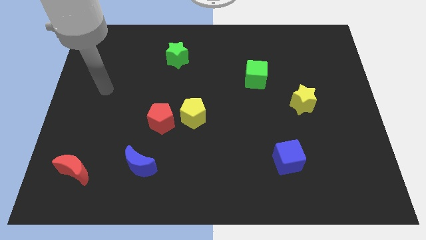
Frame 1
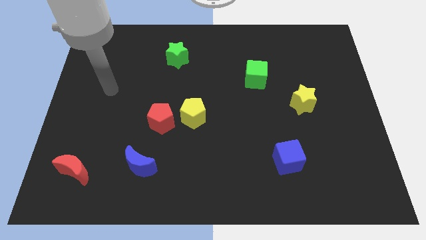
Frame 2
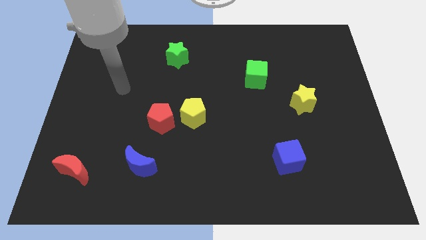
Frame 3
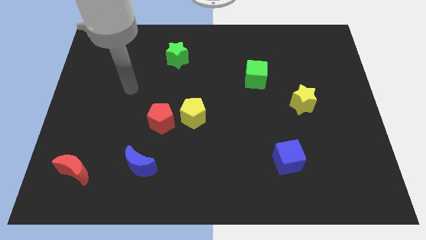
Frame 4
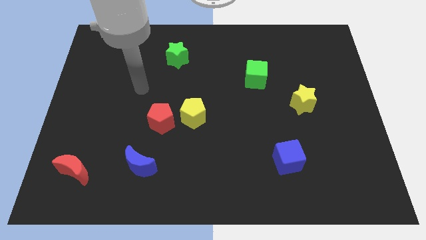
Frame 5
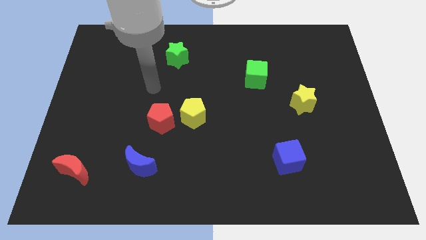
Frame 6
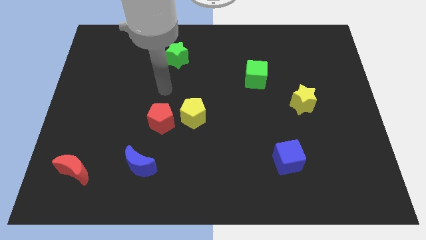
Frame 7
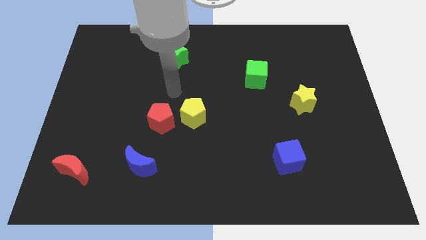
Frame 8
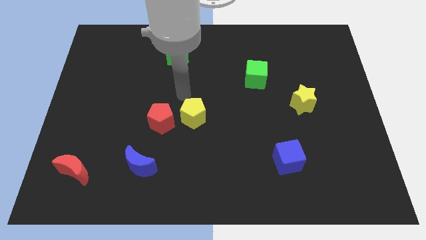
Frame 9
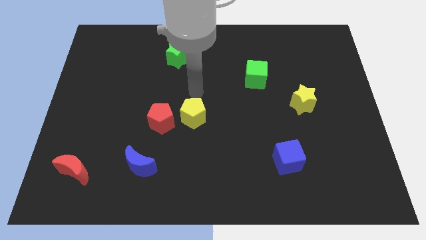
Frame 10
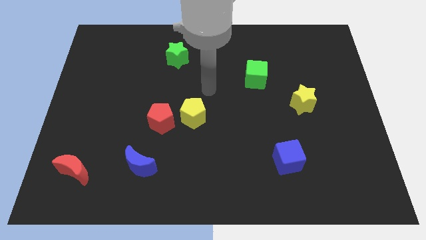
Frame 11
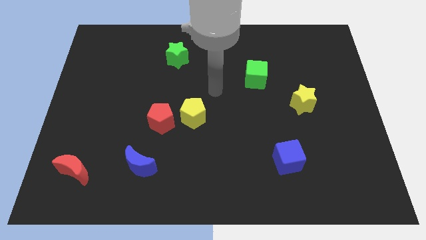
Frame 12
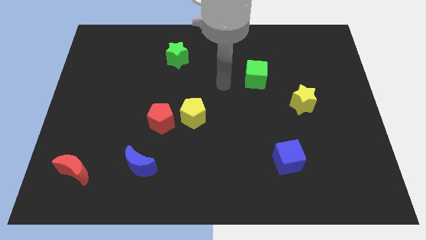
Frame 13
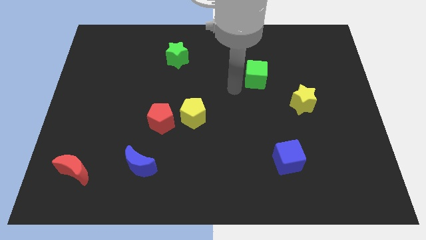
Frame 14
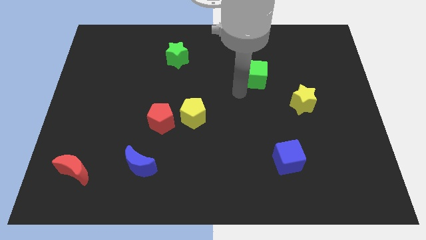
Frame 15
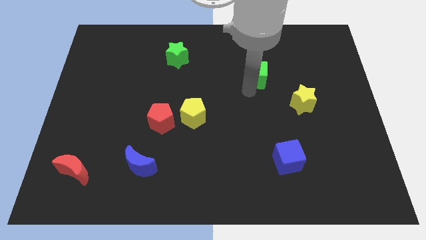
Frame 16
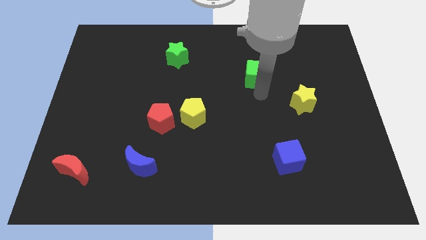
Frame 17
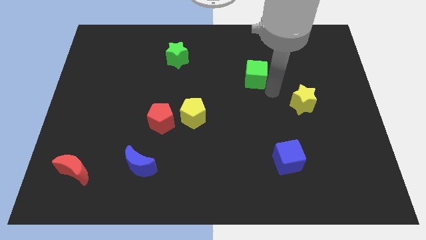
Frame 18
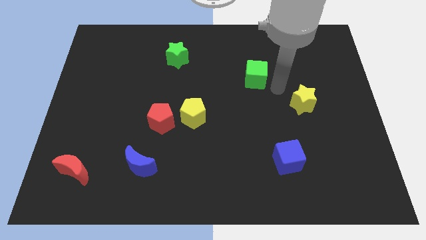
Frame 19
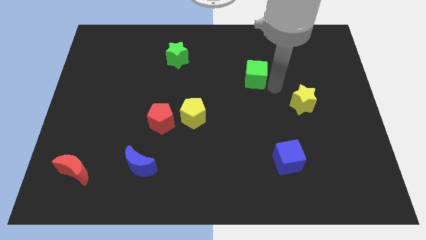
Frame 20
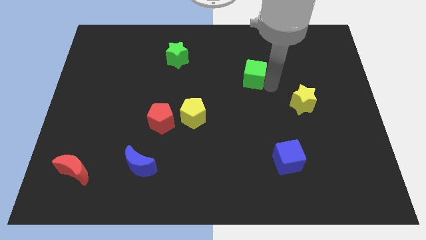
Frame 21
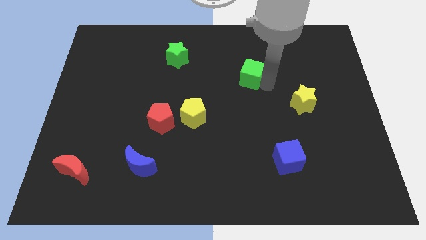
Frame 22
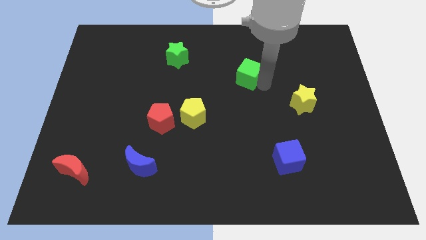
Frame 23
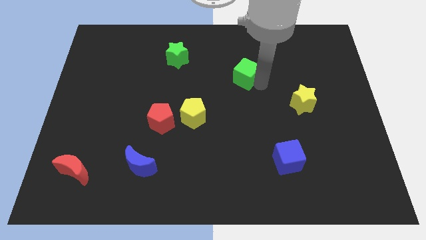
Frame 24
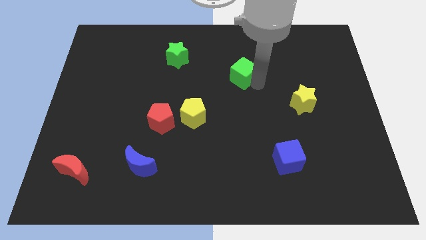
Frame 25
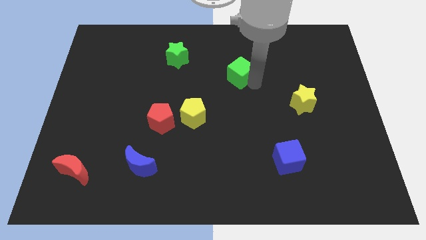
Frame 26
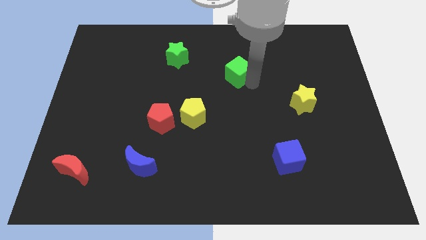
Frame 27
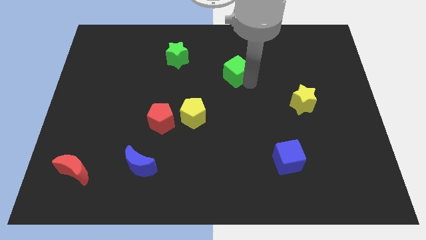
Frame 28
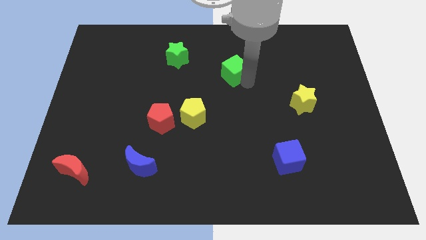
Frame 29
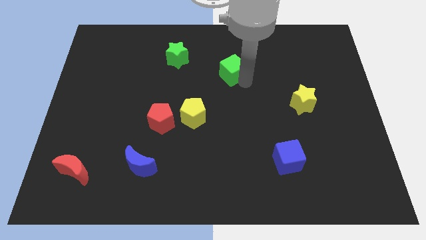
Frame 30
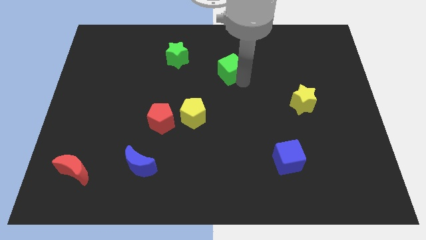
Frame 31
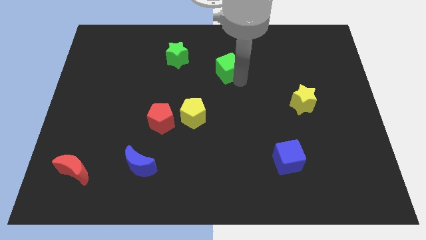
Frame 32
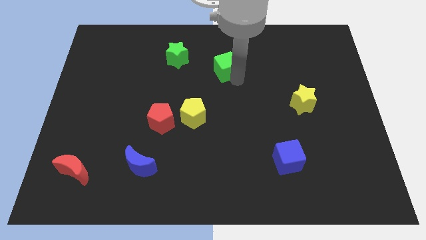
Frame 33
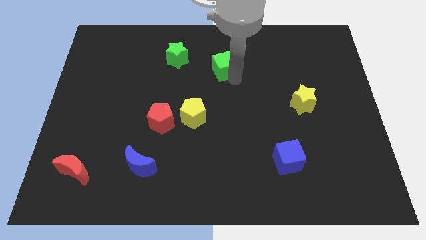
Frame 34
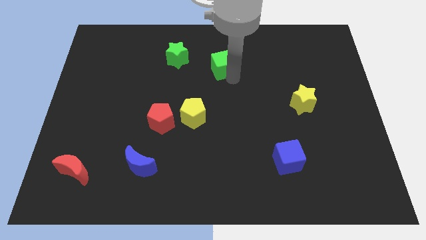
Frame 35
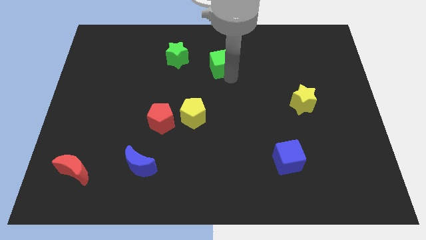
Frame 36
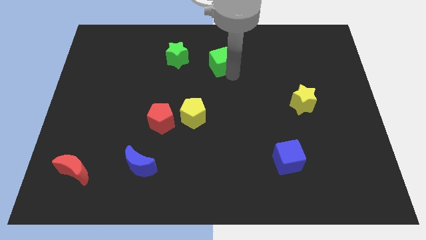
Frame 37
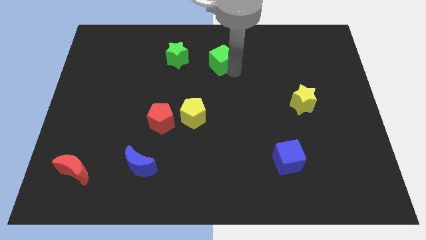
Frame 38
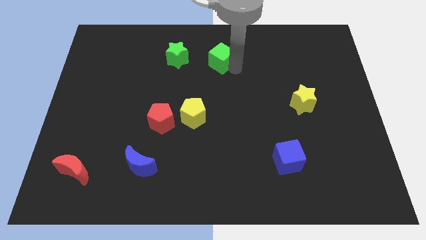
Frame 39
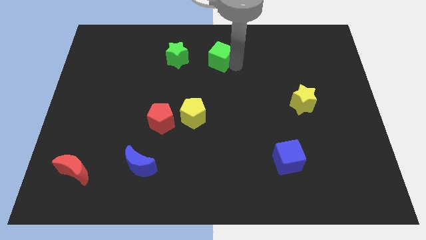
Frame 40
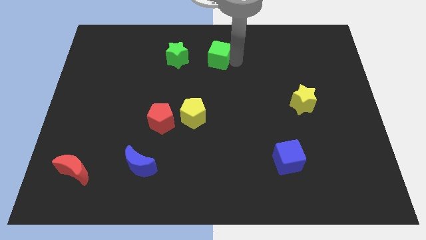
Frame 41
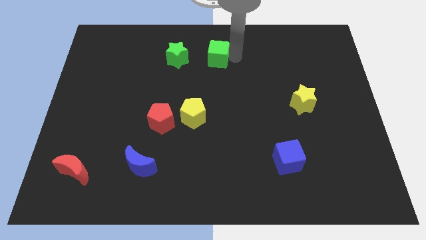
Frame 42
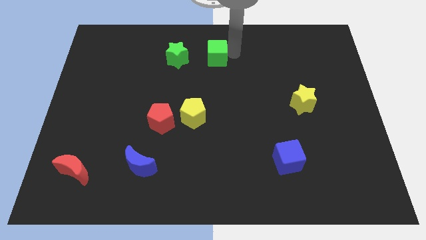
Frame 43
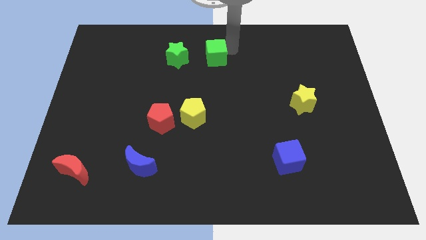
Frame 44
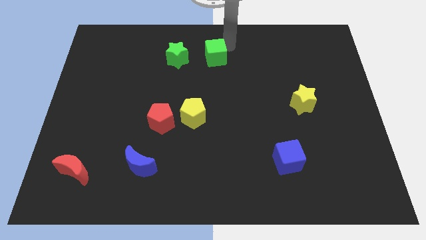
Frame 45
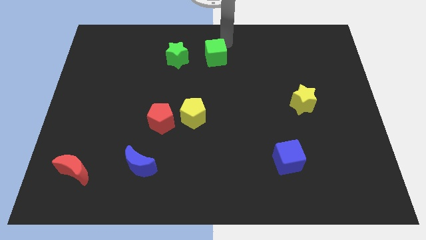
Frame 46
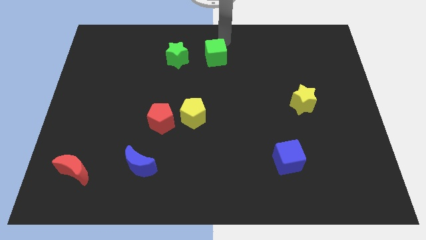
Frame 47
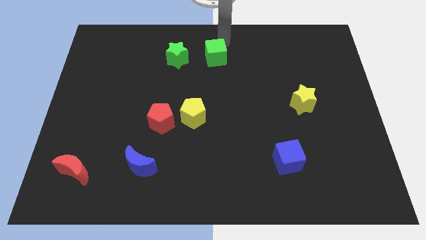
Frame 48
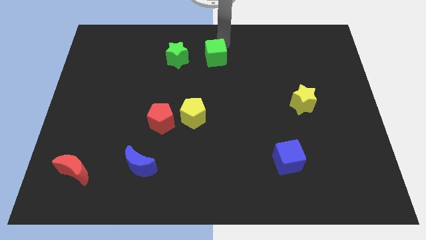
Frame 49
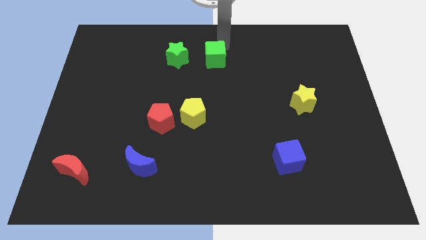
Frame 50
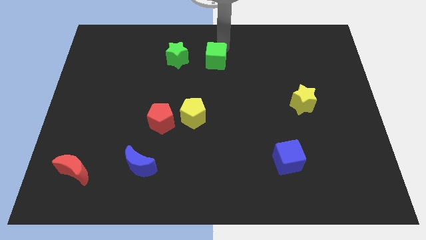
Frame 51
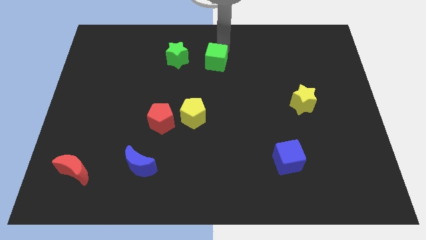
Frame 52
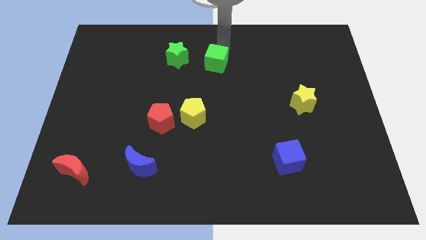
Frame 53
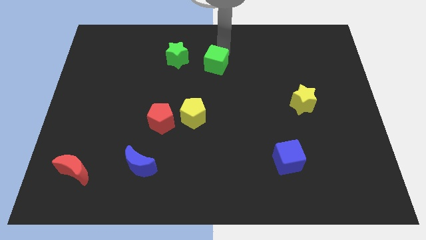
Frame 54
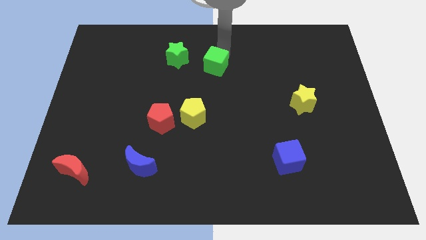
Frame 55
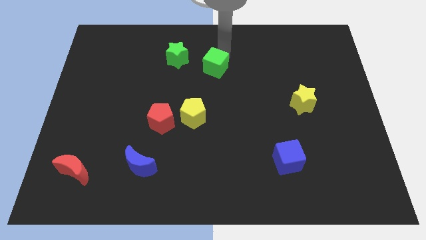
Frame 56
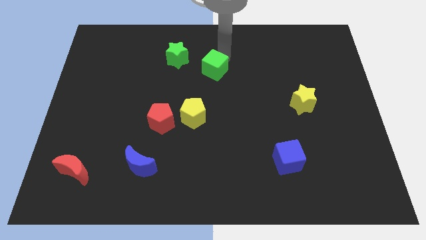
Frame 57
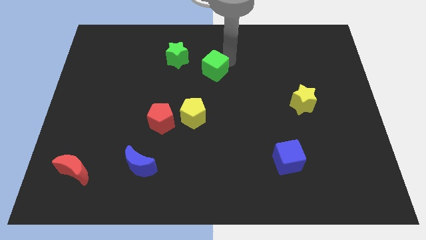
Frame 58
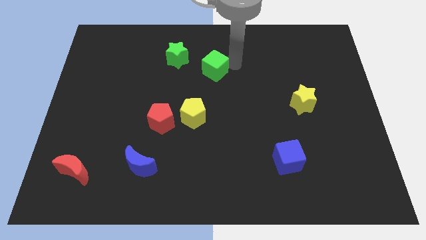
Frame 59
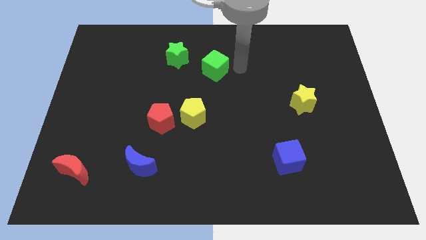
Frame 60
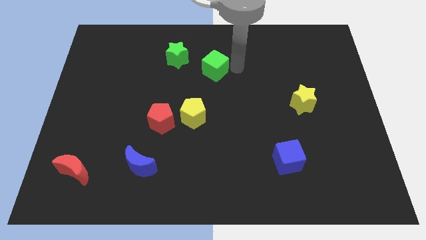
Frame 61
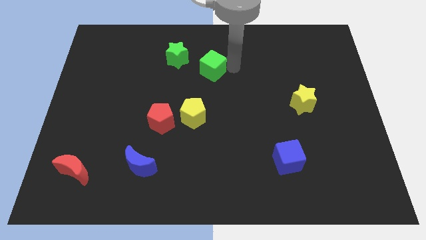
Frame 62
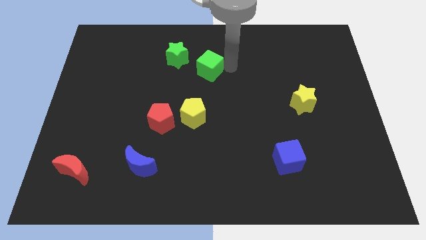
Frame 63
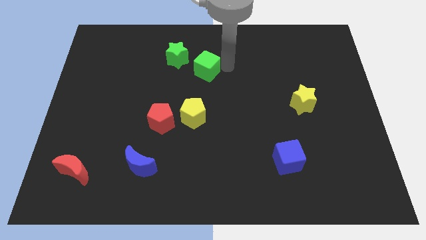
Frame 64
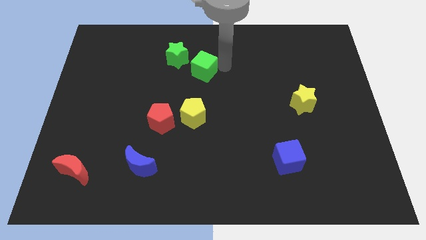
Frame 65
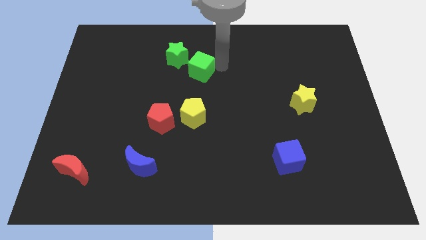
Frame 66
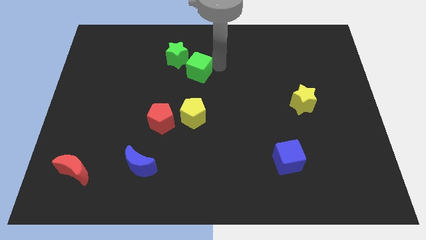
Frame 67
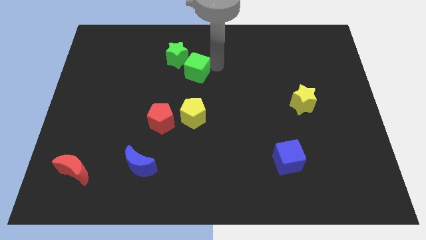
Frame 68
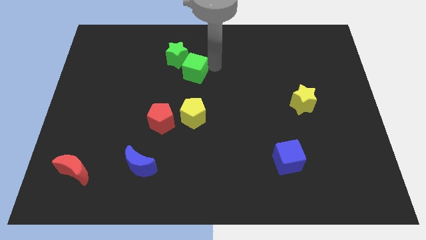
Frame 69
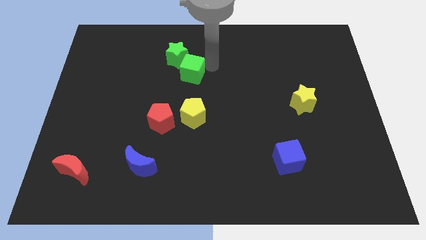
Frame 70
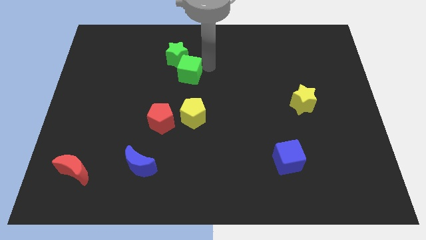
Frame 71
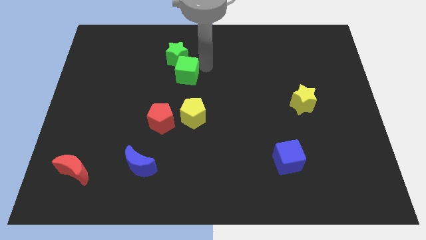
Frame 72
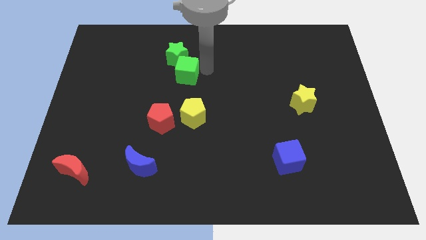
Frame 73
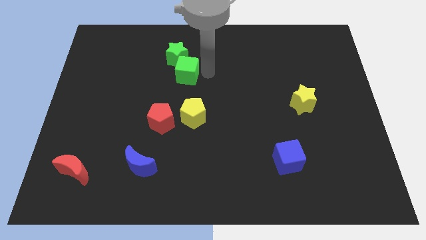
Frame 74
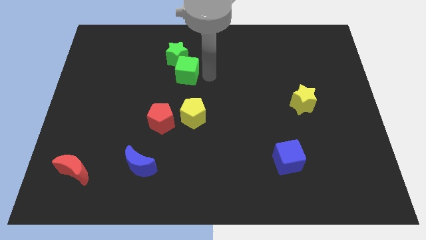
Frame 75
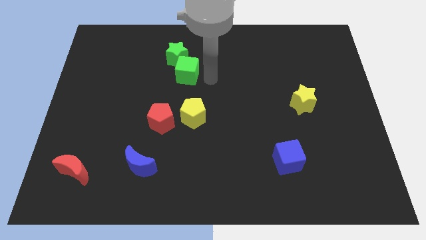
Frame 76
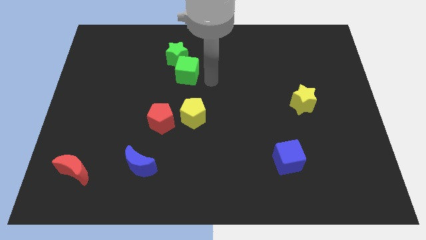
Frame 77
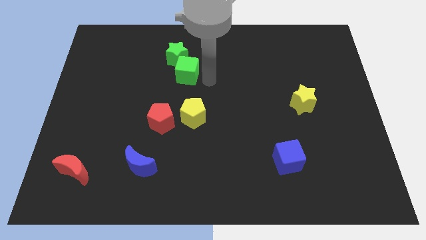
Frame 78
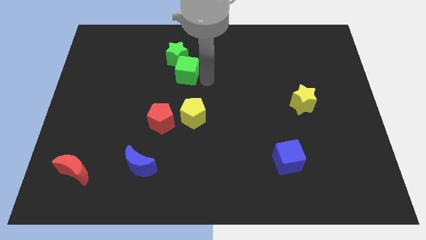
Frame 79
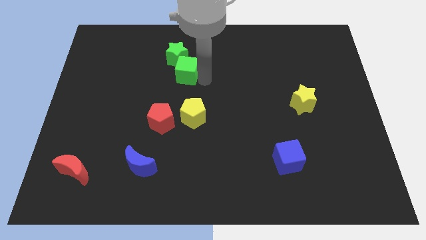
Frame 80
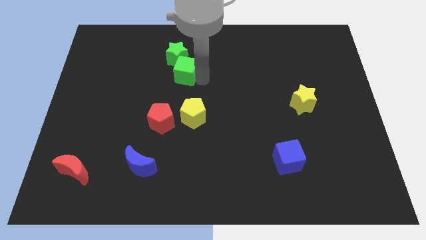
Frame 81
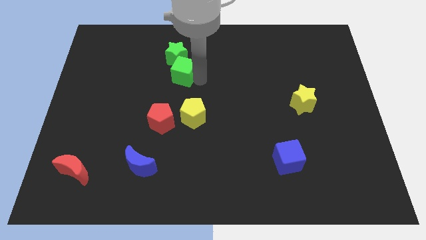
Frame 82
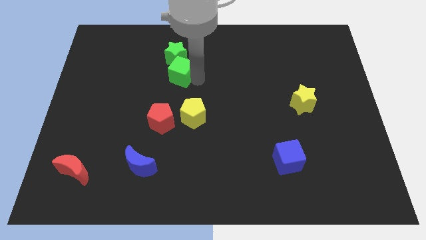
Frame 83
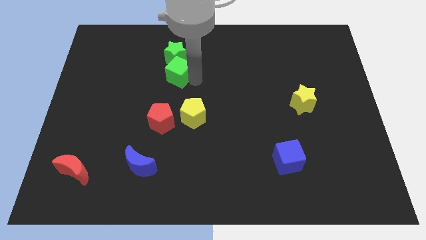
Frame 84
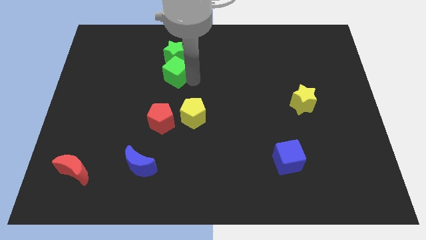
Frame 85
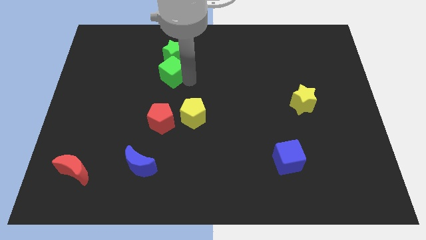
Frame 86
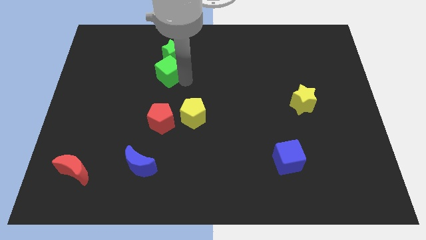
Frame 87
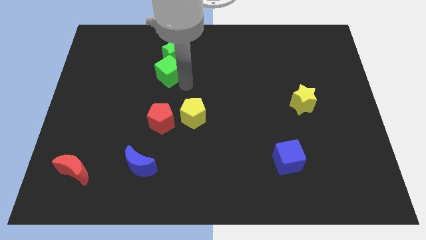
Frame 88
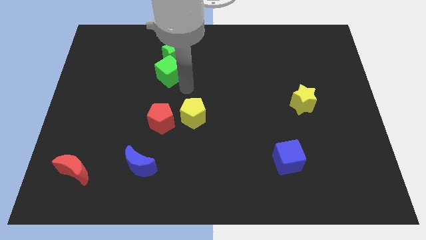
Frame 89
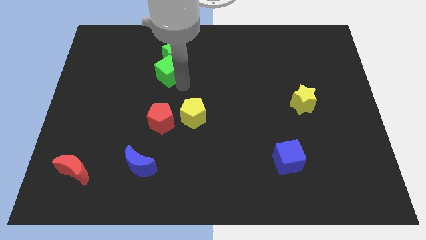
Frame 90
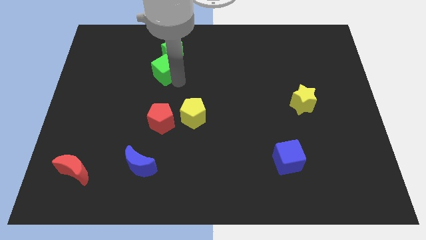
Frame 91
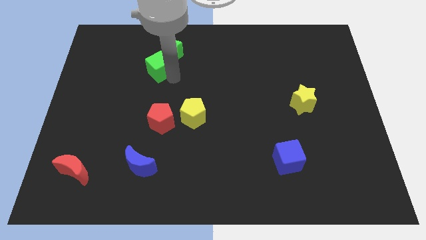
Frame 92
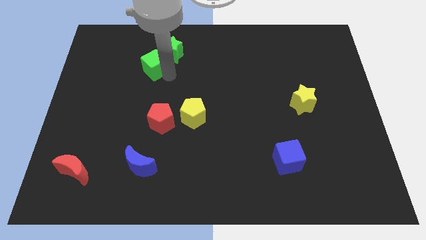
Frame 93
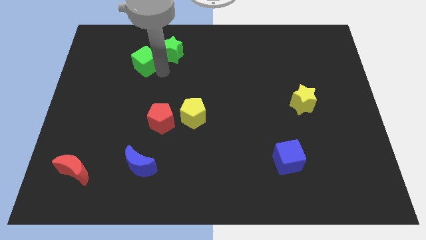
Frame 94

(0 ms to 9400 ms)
put the green cube left of the green star
